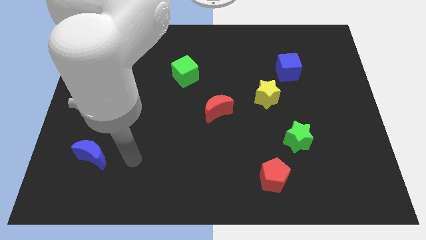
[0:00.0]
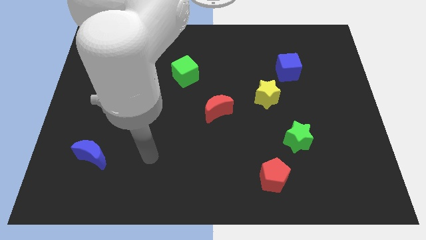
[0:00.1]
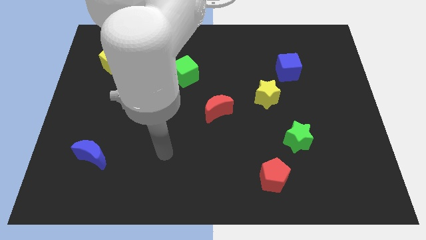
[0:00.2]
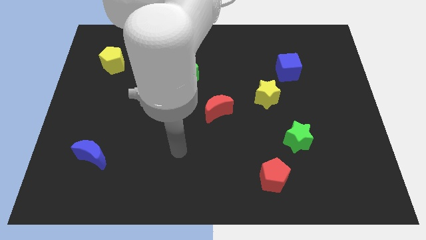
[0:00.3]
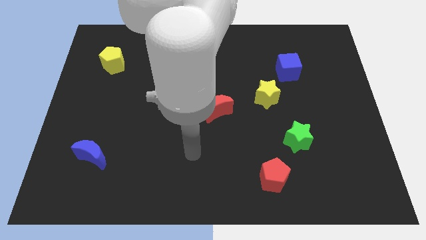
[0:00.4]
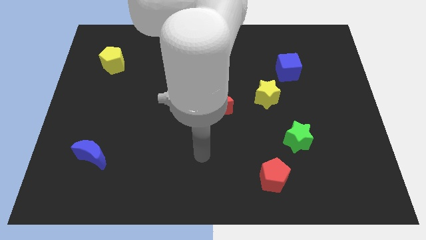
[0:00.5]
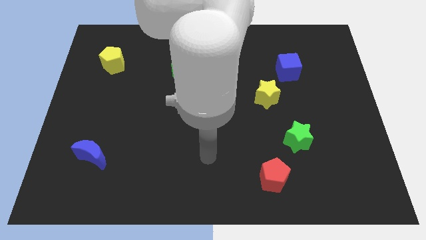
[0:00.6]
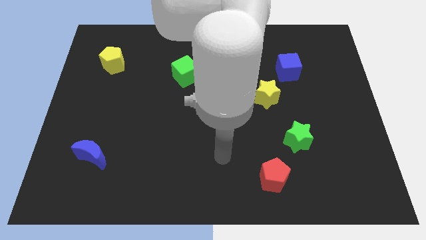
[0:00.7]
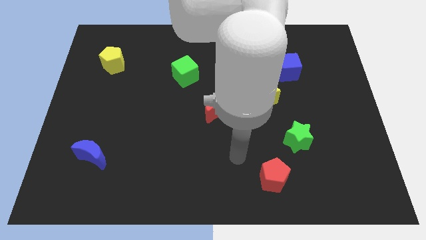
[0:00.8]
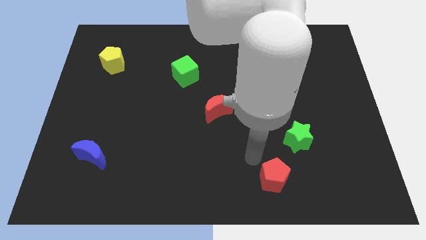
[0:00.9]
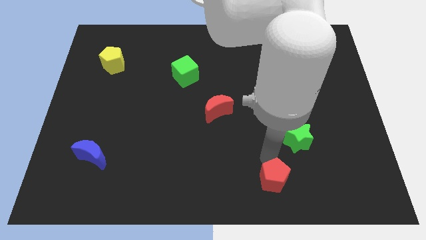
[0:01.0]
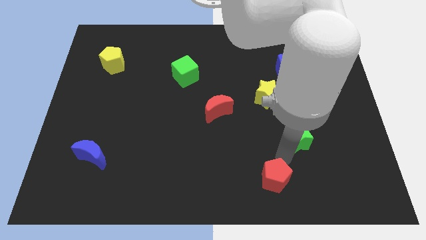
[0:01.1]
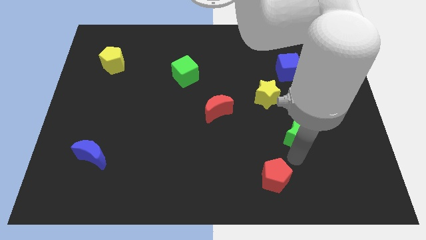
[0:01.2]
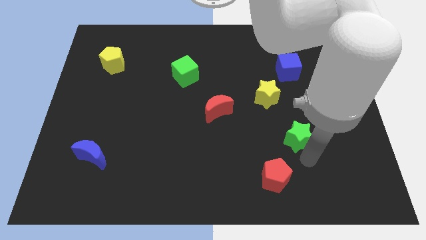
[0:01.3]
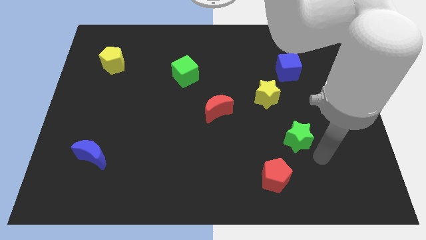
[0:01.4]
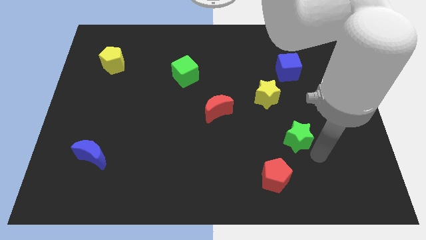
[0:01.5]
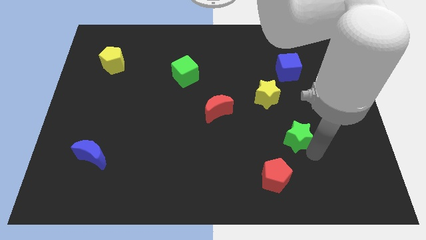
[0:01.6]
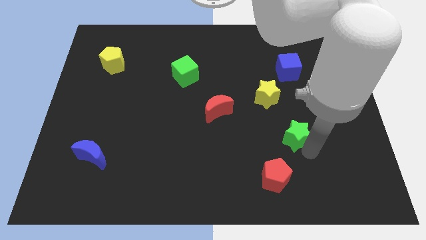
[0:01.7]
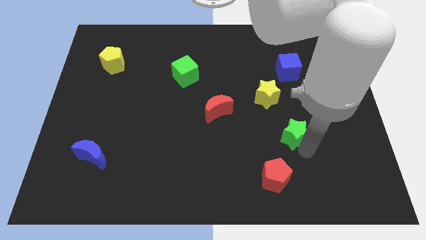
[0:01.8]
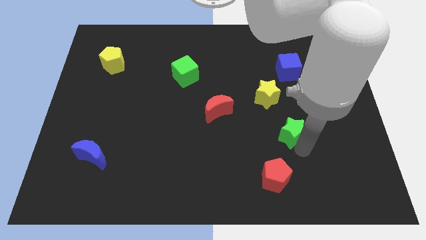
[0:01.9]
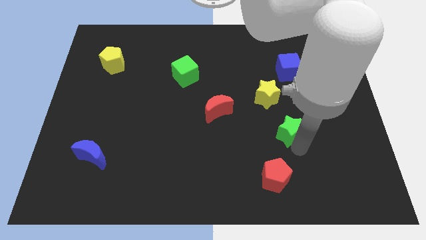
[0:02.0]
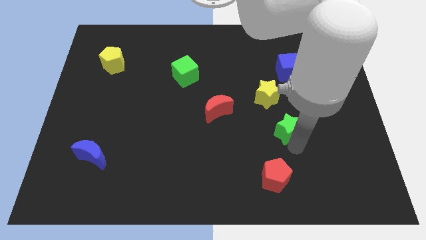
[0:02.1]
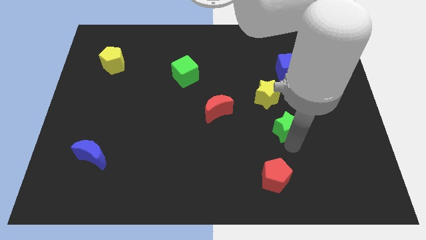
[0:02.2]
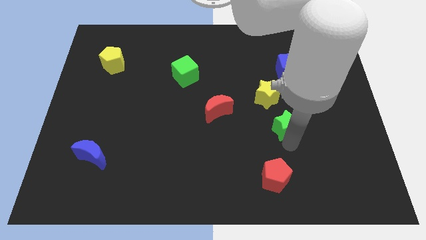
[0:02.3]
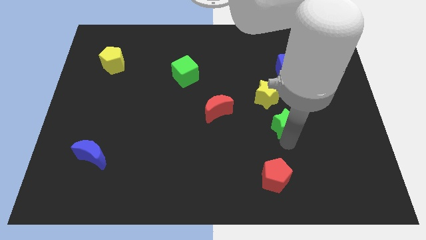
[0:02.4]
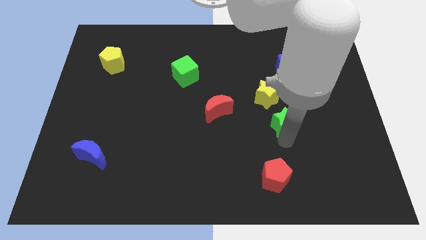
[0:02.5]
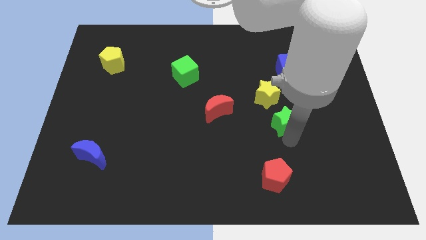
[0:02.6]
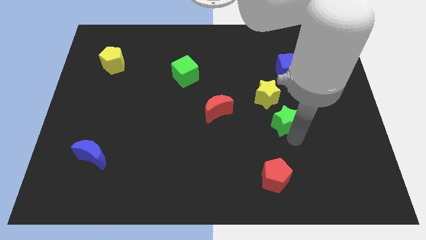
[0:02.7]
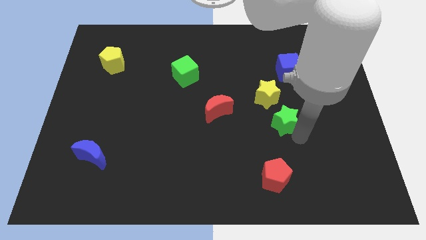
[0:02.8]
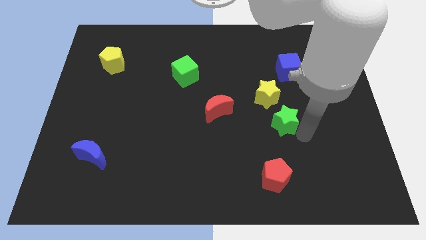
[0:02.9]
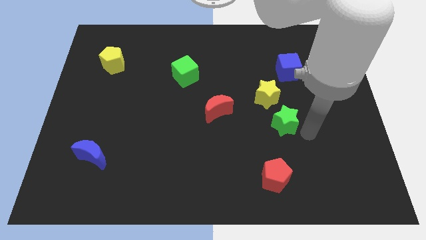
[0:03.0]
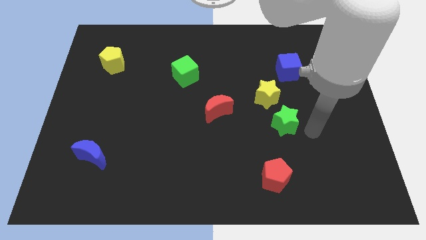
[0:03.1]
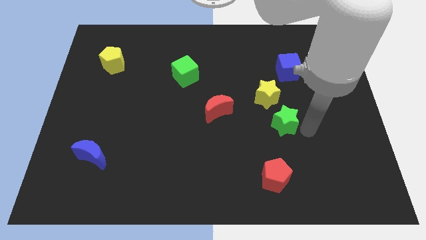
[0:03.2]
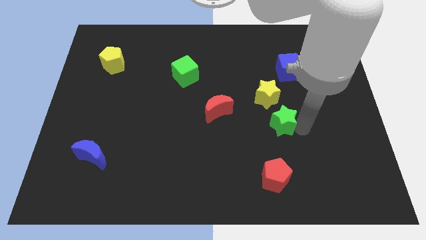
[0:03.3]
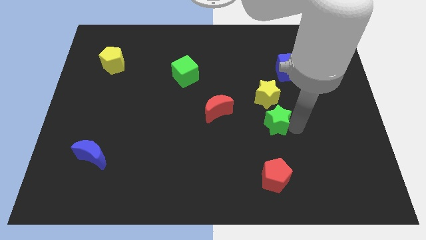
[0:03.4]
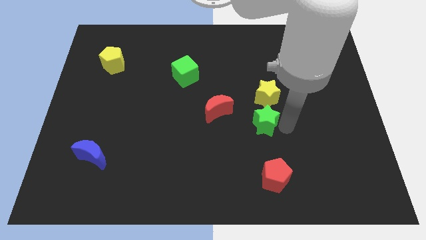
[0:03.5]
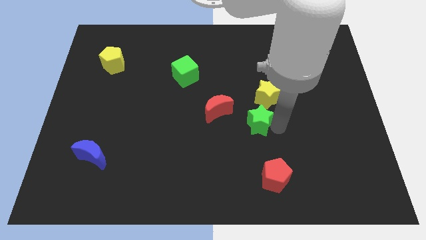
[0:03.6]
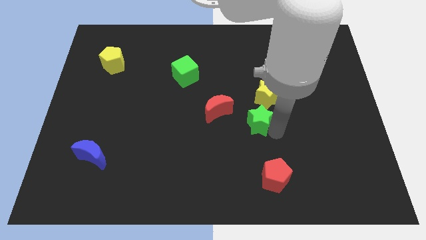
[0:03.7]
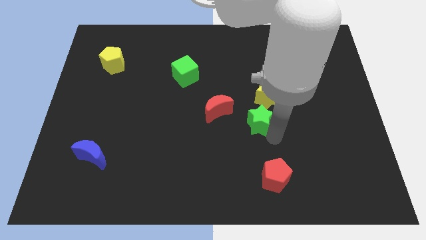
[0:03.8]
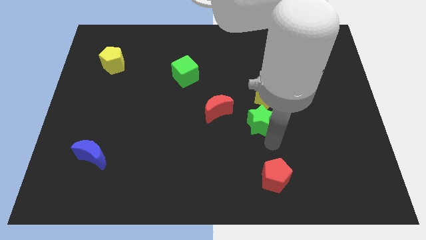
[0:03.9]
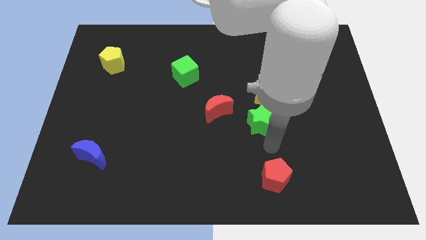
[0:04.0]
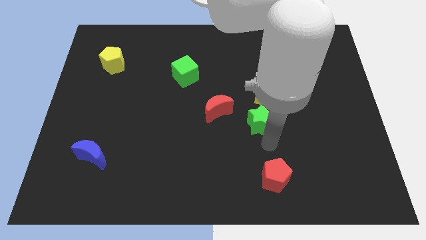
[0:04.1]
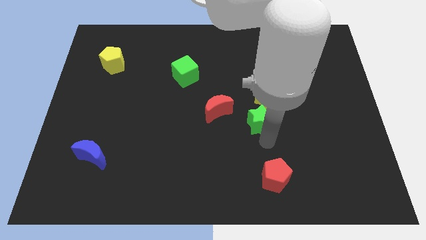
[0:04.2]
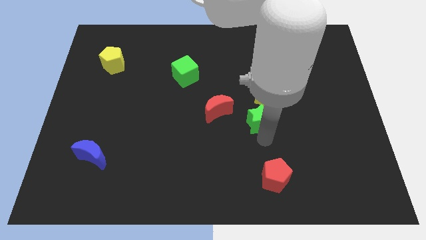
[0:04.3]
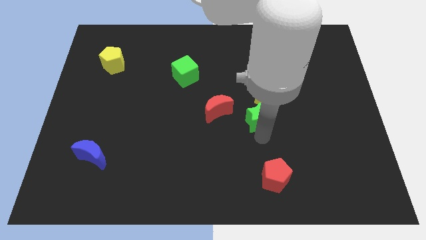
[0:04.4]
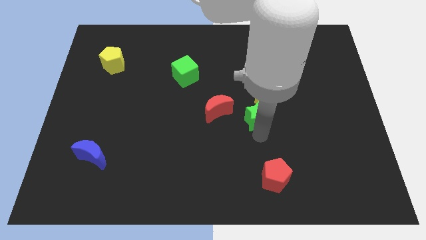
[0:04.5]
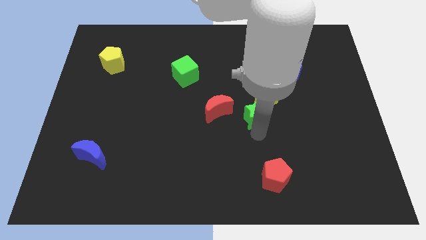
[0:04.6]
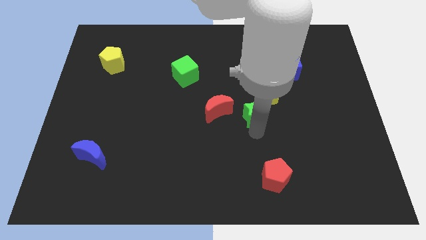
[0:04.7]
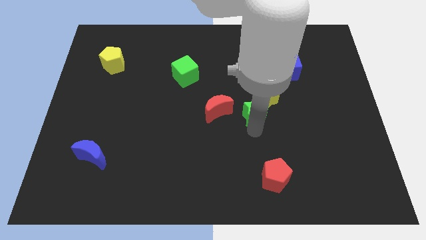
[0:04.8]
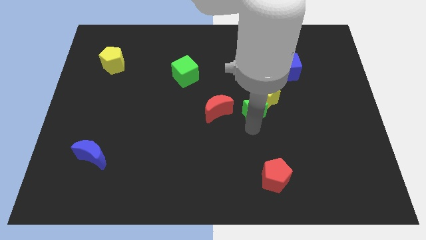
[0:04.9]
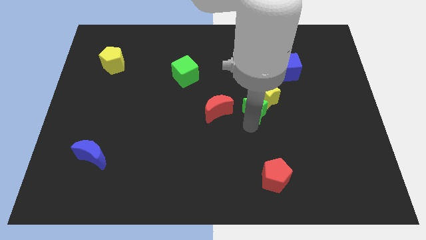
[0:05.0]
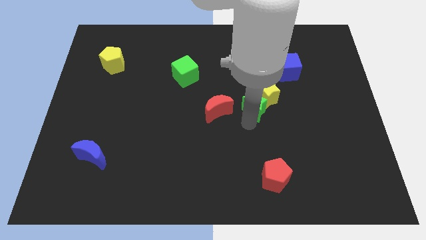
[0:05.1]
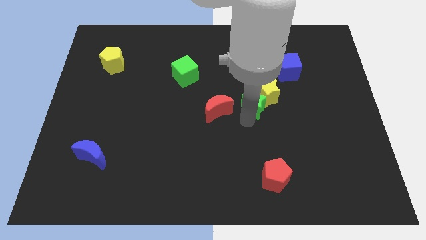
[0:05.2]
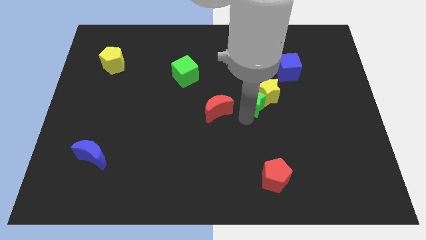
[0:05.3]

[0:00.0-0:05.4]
slide the green star to the top right side of the red moon

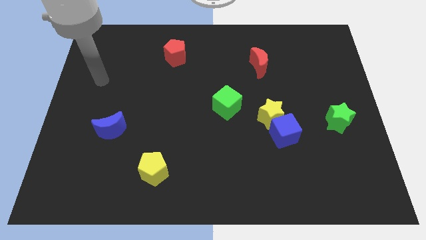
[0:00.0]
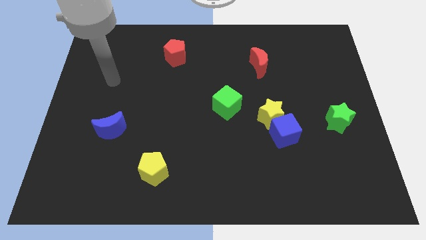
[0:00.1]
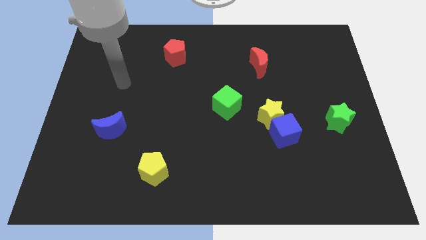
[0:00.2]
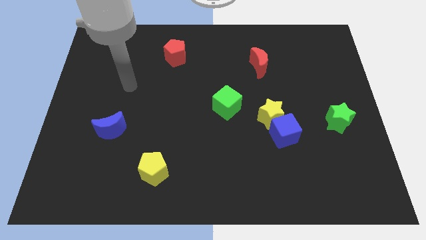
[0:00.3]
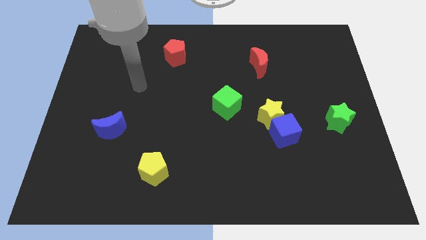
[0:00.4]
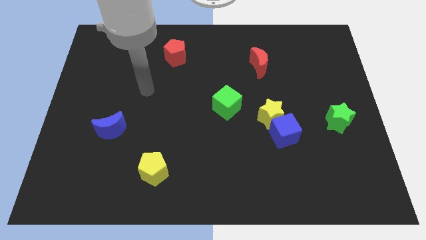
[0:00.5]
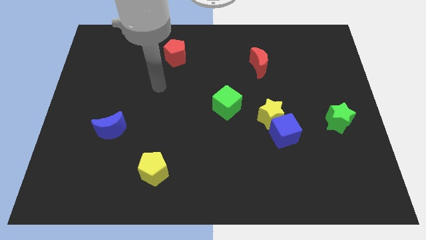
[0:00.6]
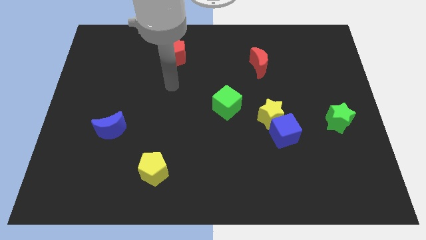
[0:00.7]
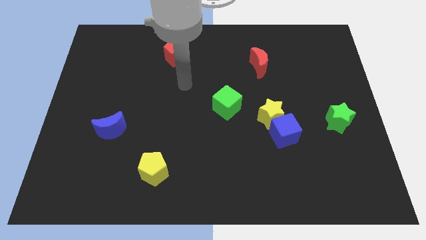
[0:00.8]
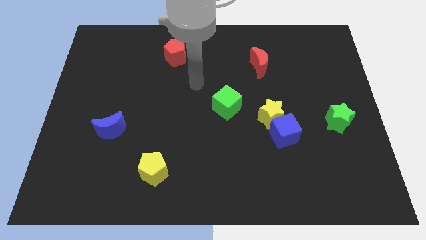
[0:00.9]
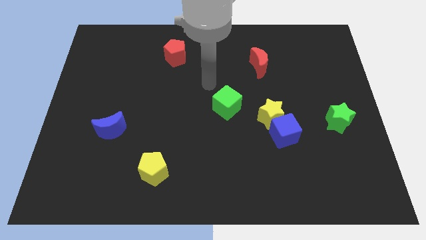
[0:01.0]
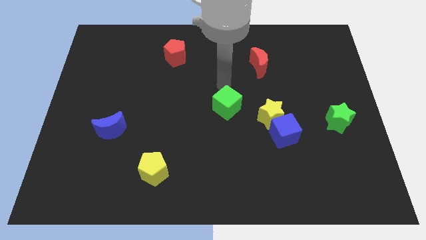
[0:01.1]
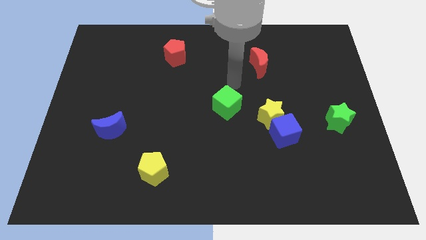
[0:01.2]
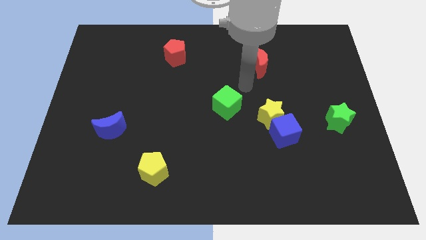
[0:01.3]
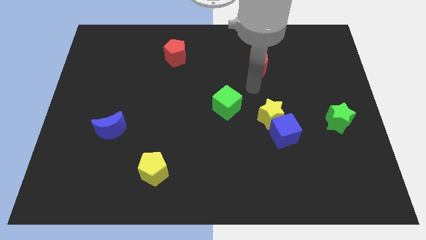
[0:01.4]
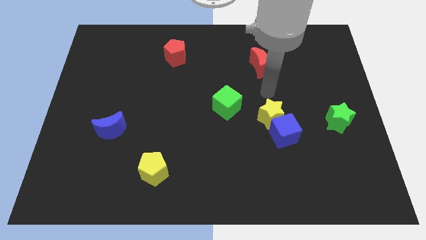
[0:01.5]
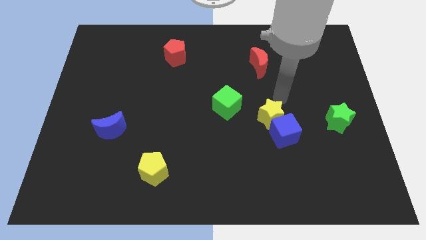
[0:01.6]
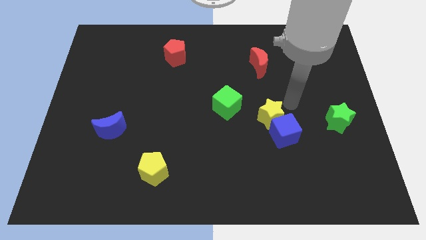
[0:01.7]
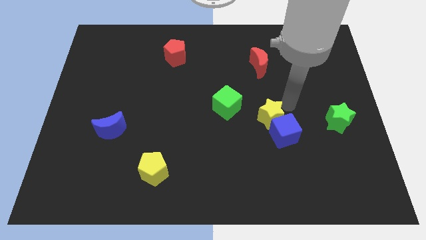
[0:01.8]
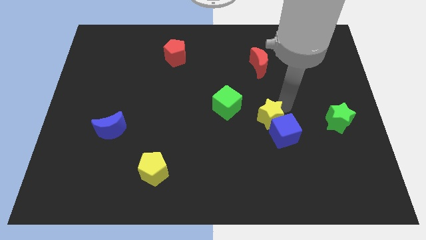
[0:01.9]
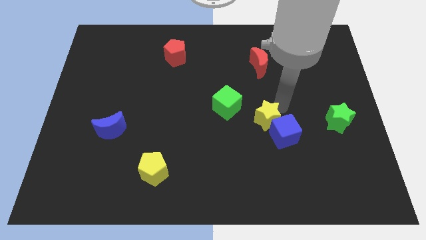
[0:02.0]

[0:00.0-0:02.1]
push the yellow star to the left of the blue cube

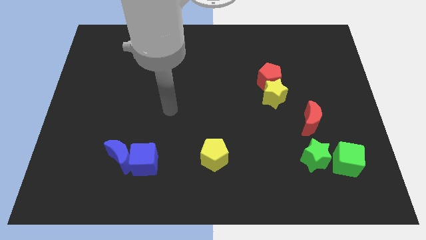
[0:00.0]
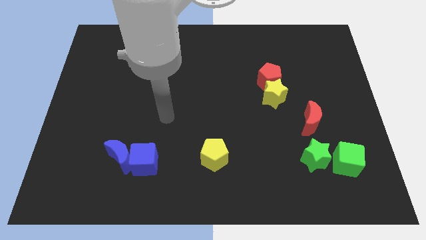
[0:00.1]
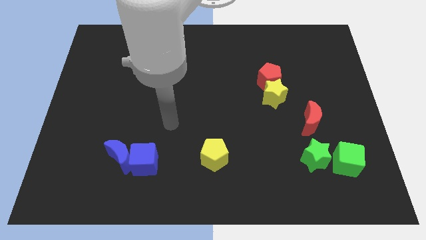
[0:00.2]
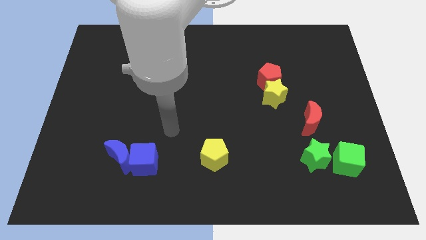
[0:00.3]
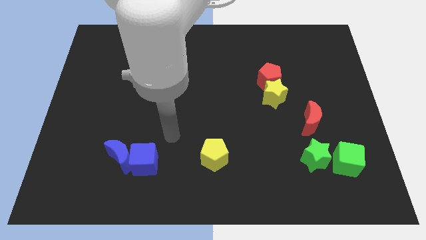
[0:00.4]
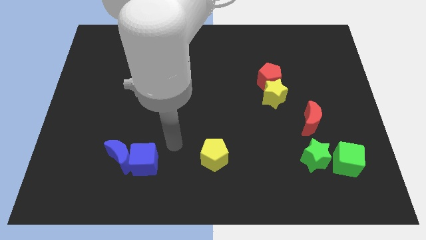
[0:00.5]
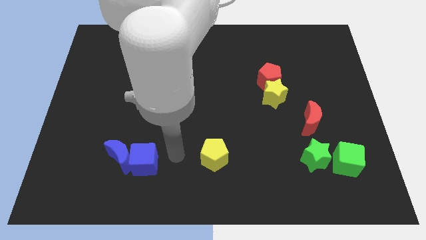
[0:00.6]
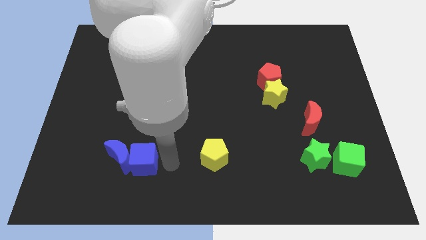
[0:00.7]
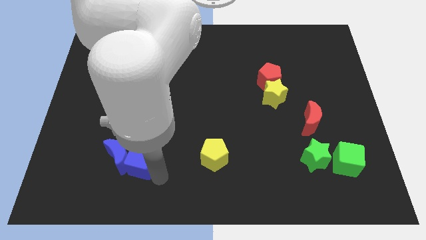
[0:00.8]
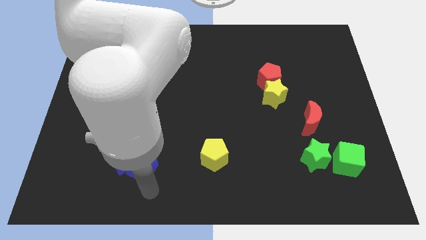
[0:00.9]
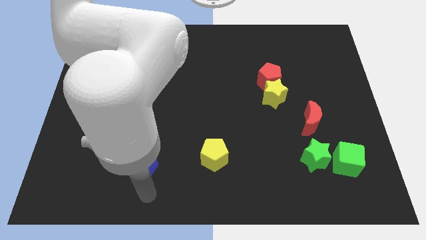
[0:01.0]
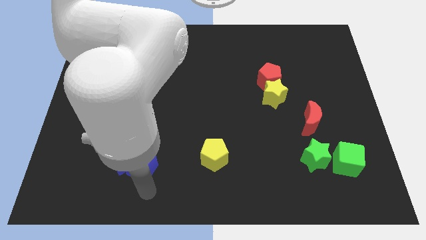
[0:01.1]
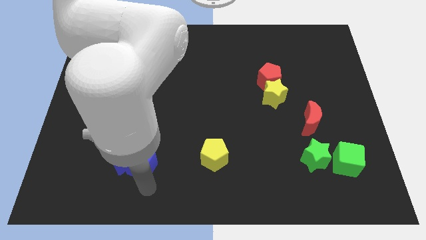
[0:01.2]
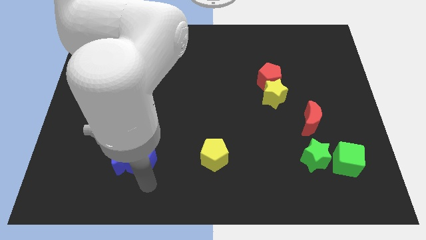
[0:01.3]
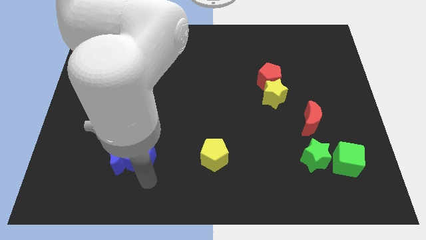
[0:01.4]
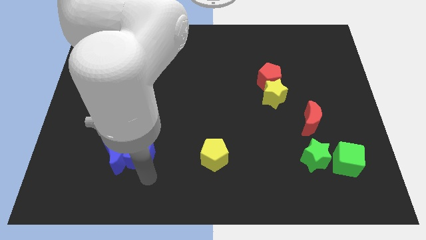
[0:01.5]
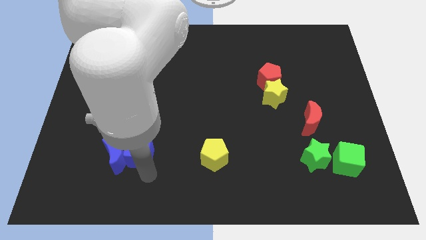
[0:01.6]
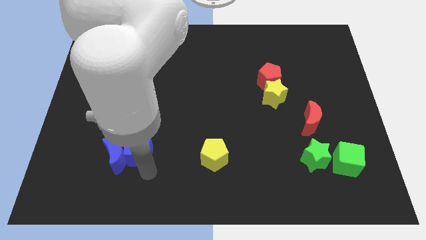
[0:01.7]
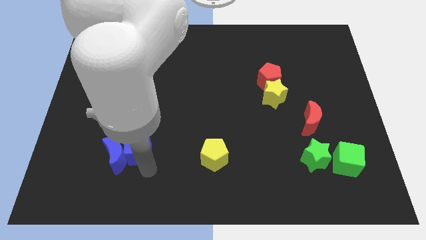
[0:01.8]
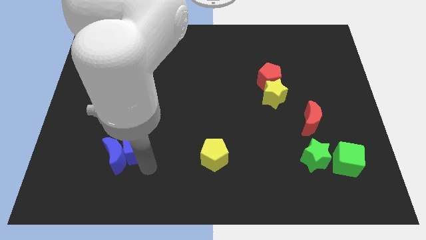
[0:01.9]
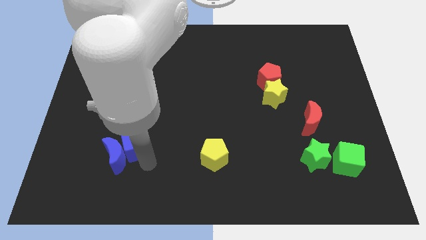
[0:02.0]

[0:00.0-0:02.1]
put the blue cube above the blue moon
